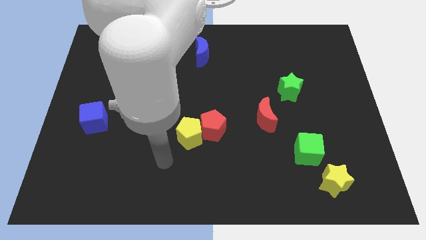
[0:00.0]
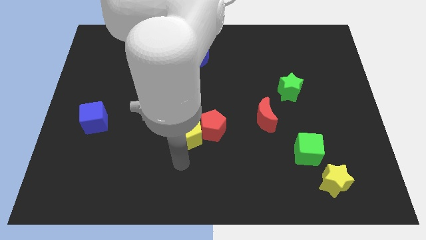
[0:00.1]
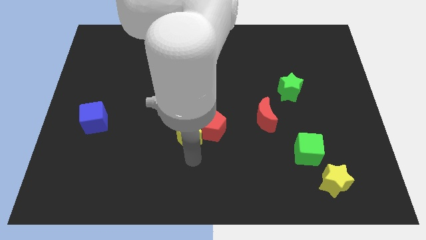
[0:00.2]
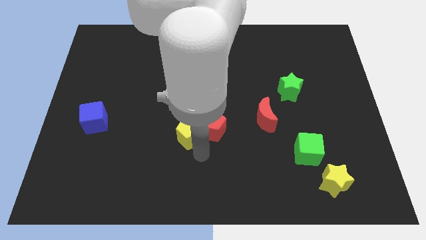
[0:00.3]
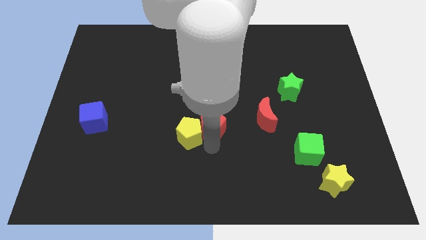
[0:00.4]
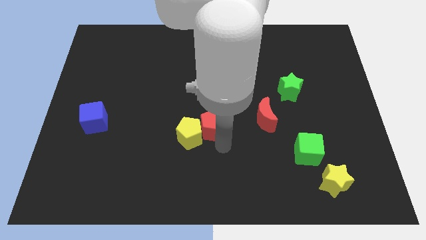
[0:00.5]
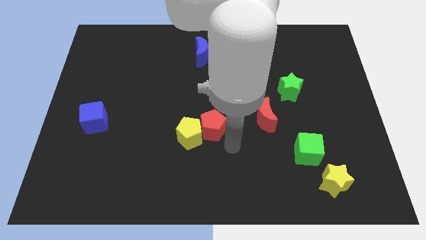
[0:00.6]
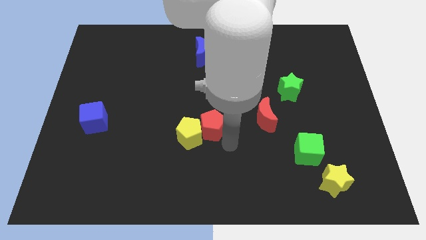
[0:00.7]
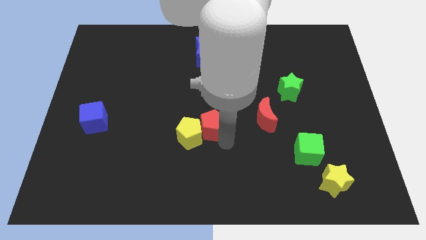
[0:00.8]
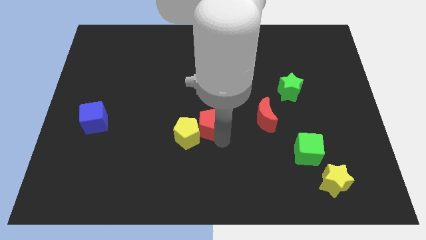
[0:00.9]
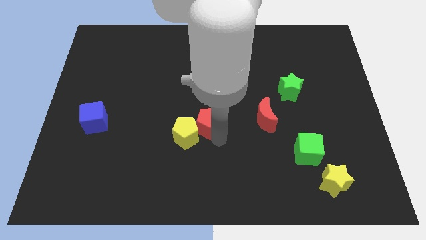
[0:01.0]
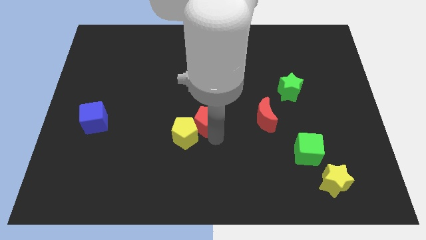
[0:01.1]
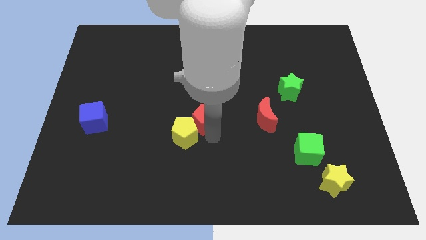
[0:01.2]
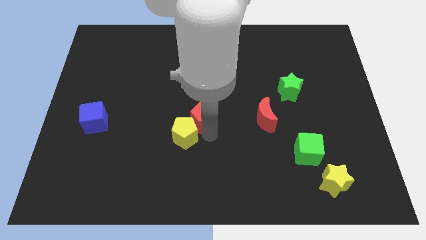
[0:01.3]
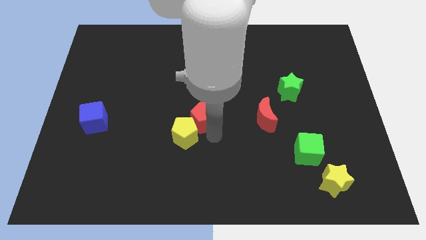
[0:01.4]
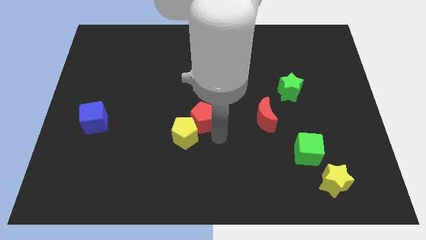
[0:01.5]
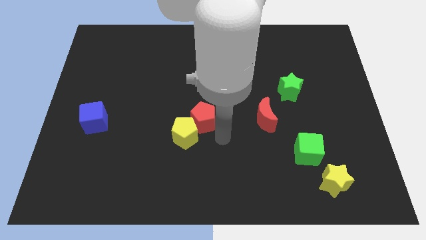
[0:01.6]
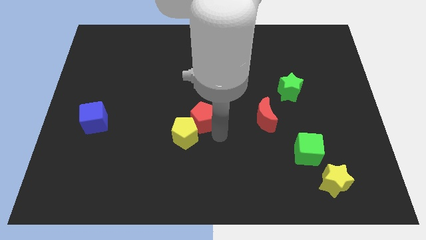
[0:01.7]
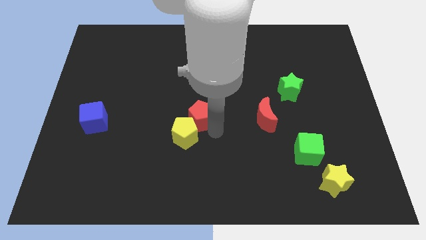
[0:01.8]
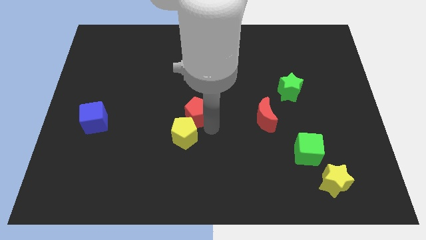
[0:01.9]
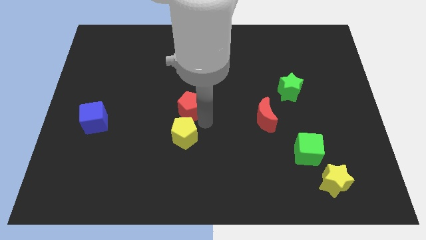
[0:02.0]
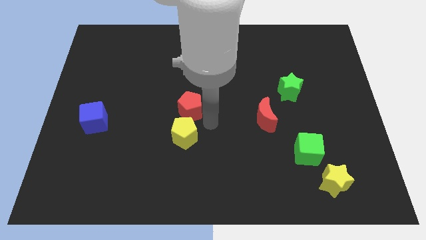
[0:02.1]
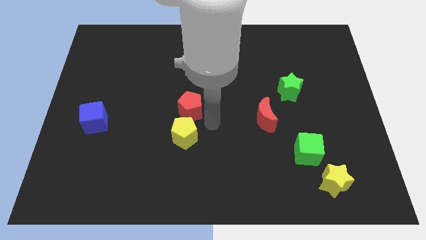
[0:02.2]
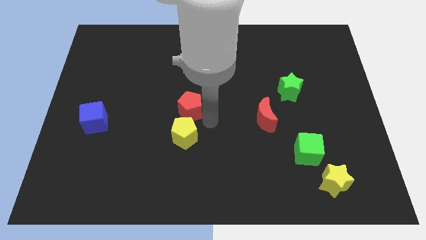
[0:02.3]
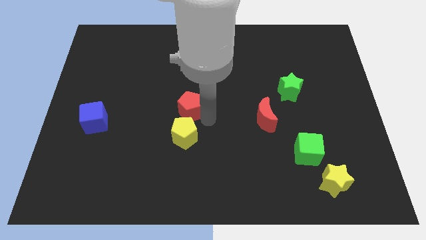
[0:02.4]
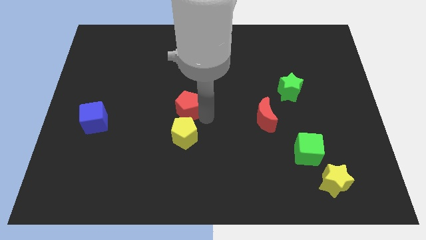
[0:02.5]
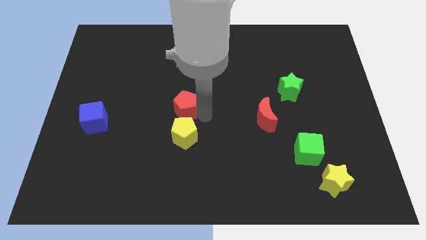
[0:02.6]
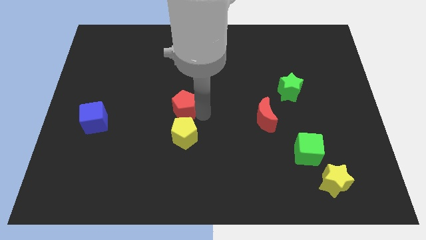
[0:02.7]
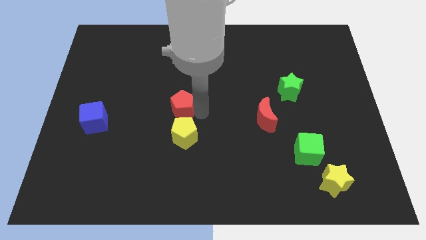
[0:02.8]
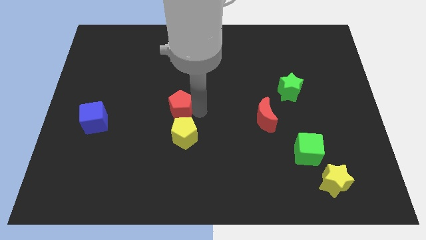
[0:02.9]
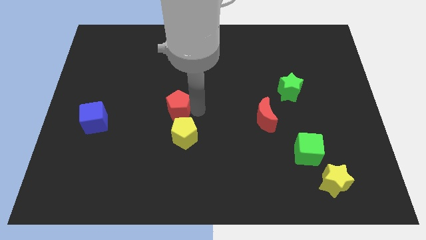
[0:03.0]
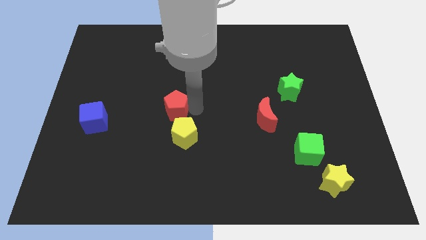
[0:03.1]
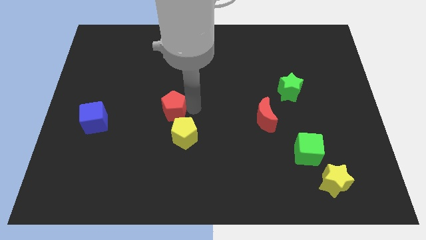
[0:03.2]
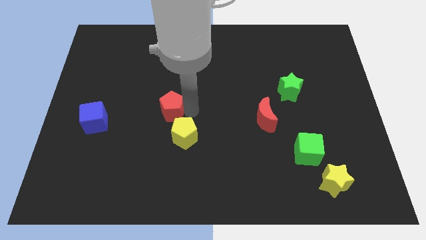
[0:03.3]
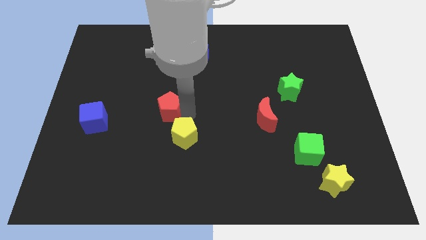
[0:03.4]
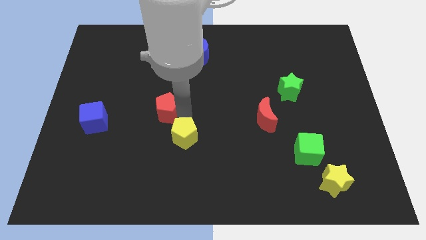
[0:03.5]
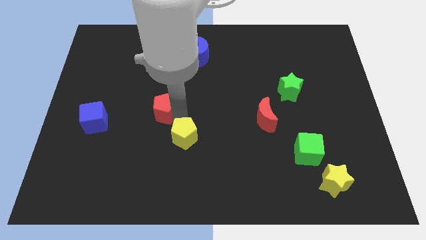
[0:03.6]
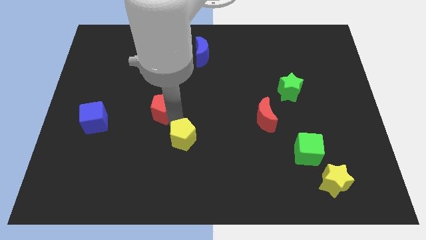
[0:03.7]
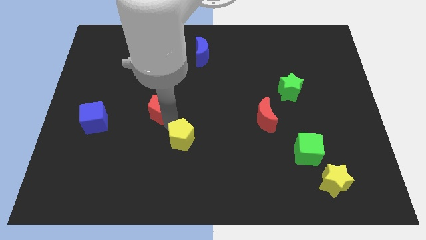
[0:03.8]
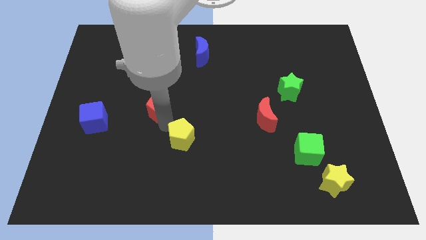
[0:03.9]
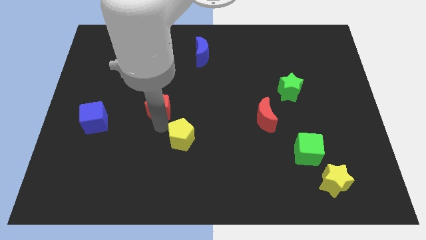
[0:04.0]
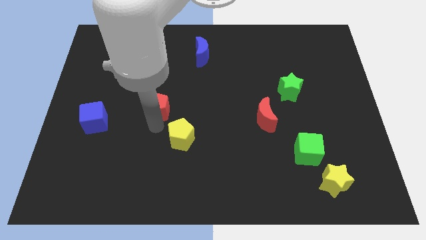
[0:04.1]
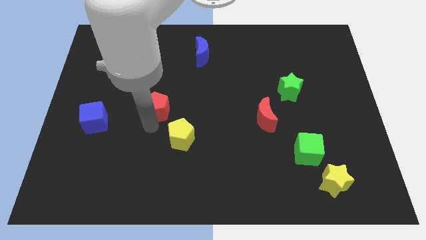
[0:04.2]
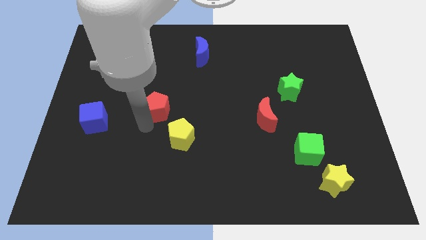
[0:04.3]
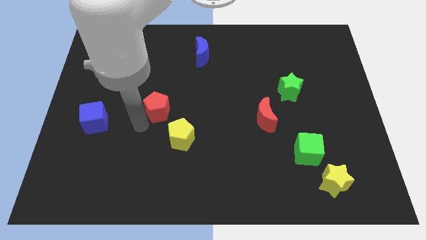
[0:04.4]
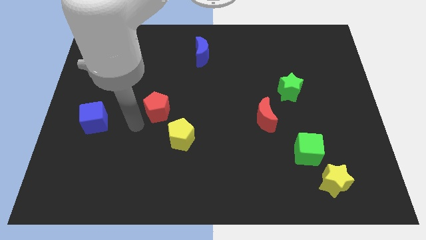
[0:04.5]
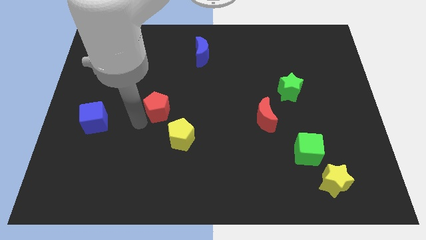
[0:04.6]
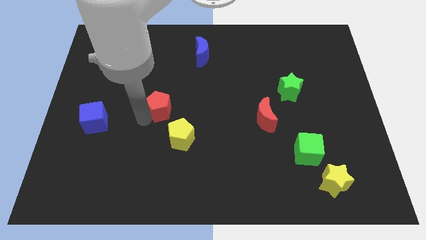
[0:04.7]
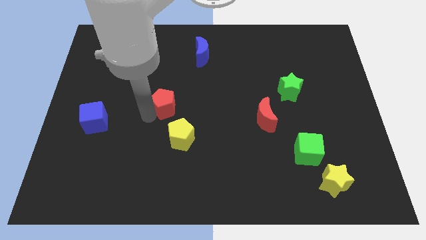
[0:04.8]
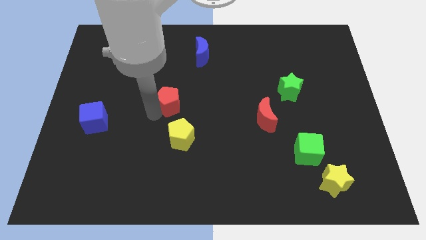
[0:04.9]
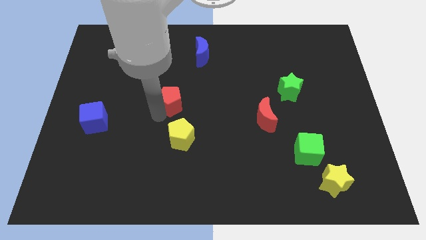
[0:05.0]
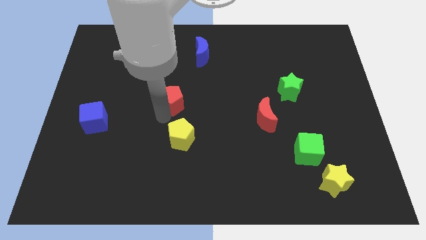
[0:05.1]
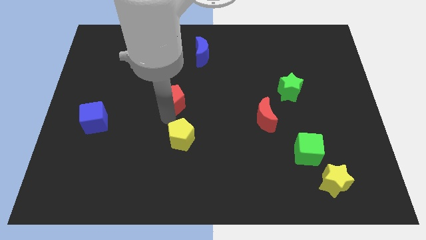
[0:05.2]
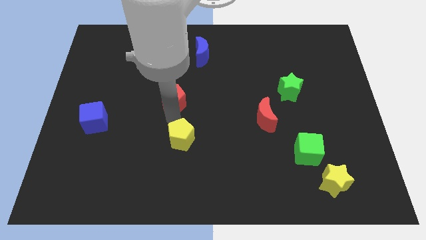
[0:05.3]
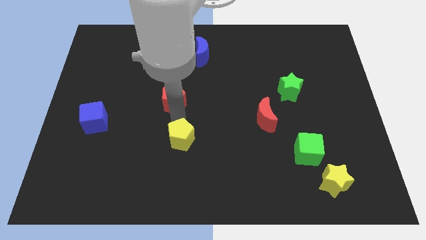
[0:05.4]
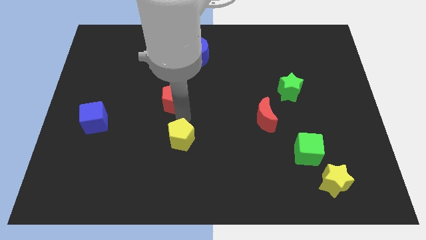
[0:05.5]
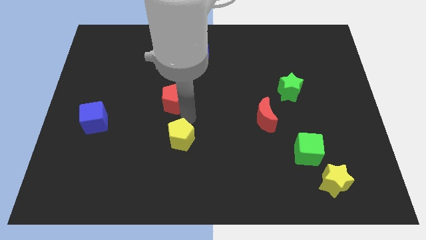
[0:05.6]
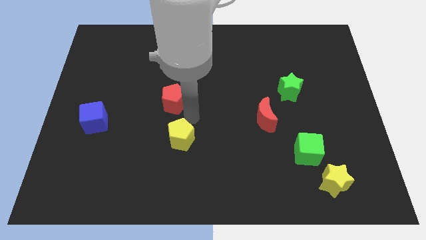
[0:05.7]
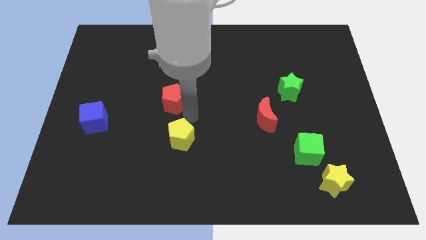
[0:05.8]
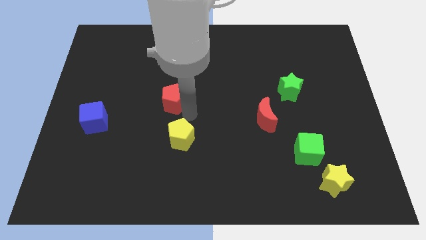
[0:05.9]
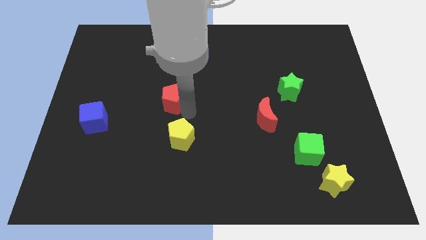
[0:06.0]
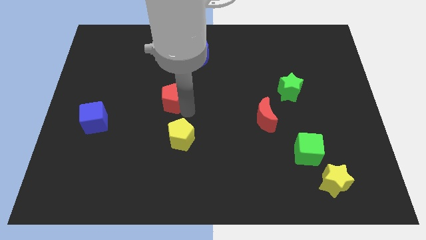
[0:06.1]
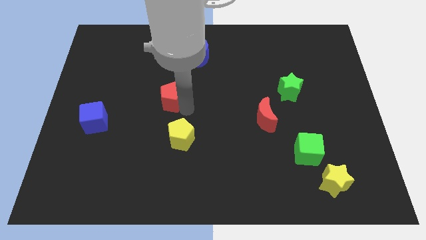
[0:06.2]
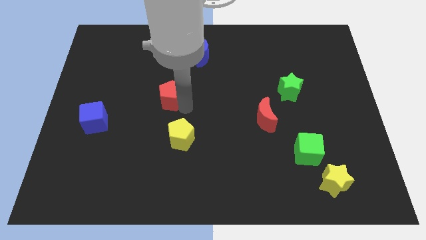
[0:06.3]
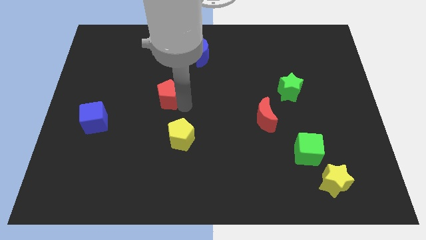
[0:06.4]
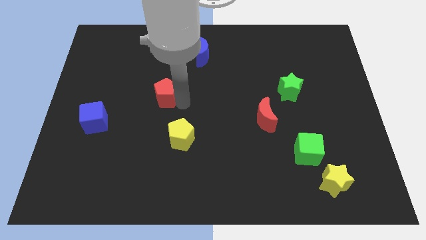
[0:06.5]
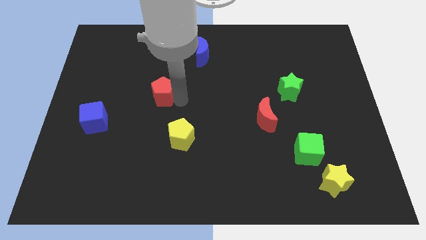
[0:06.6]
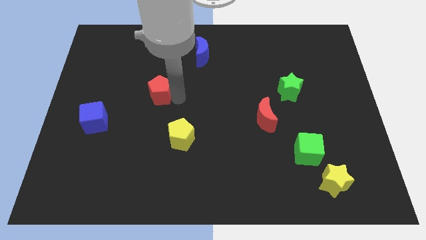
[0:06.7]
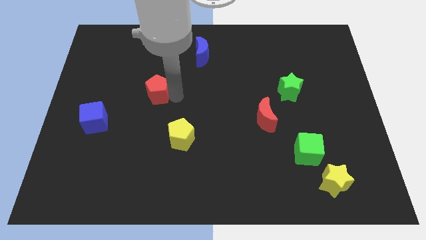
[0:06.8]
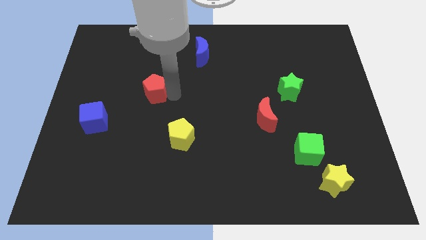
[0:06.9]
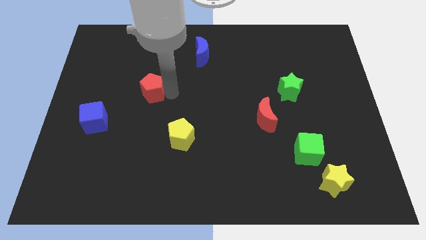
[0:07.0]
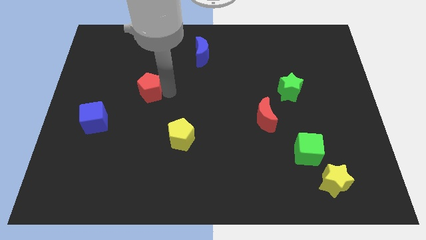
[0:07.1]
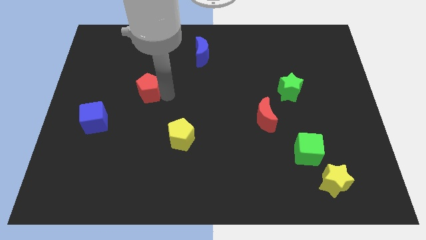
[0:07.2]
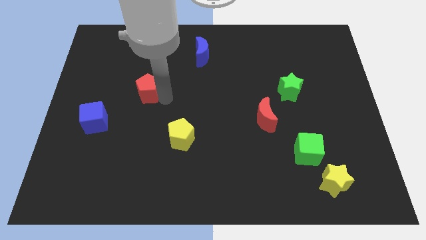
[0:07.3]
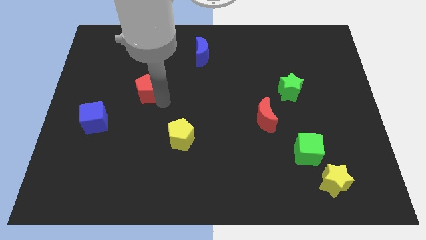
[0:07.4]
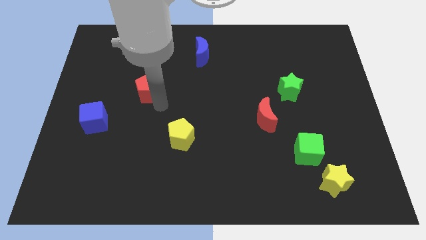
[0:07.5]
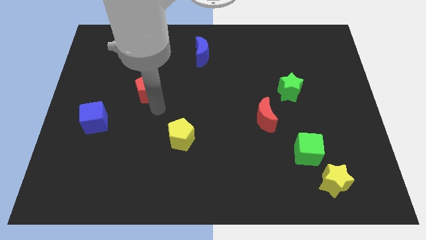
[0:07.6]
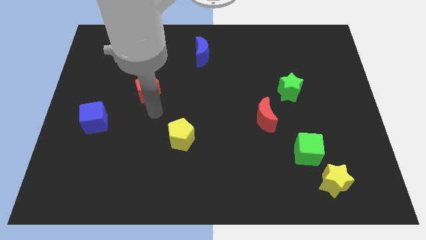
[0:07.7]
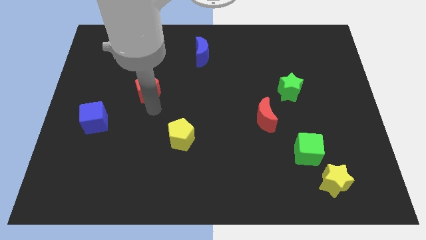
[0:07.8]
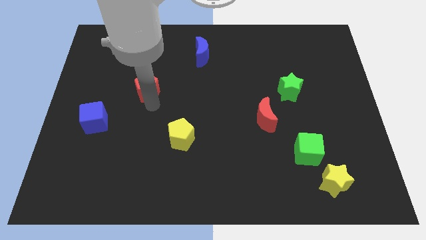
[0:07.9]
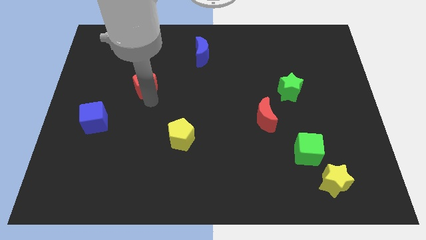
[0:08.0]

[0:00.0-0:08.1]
push the red pentagon upwards and left

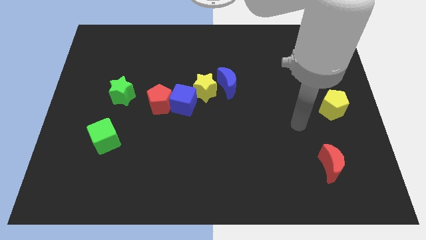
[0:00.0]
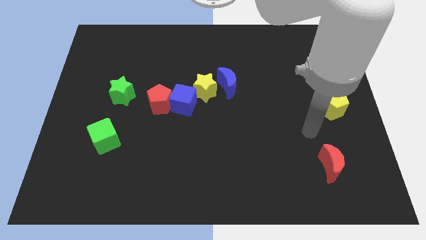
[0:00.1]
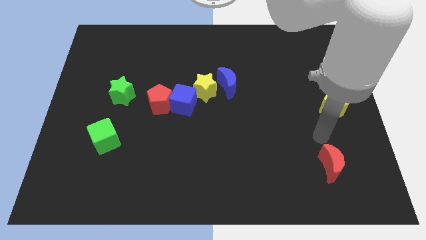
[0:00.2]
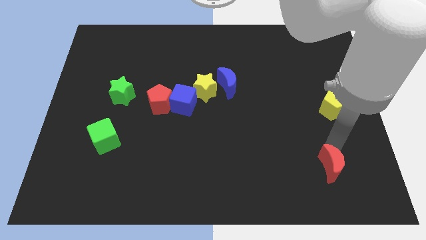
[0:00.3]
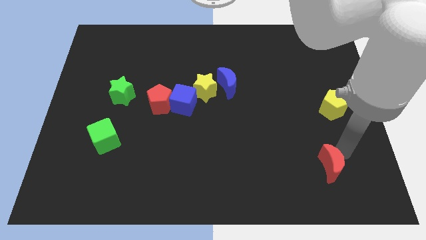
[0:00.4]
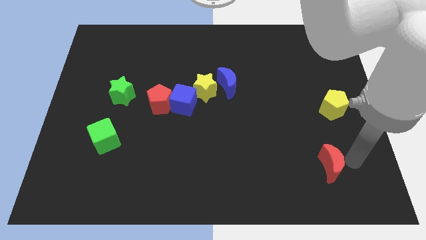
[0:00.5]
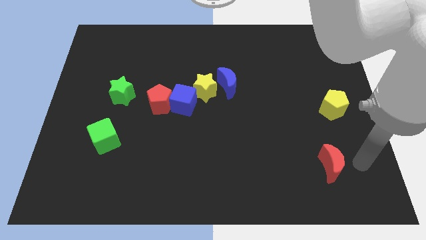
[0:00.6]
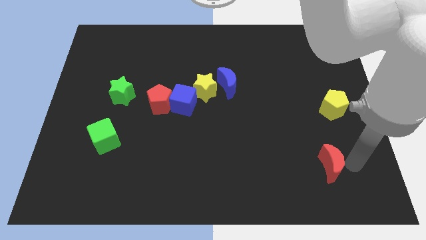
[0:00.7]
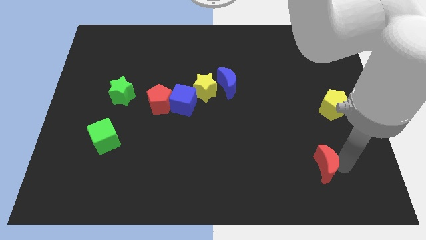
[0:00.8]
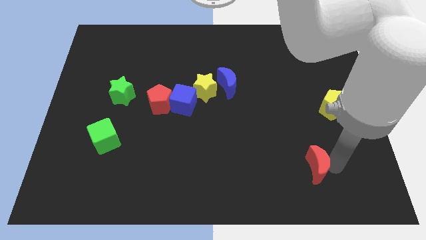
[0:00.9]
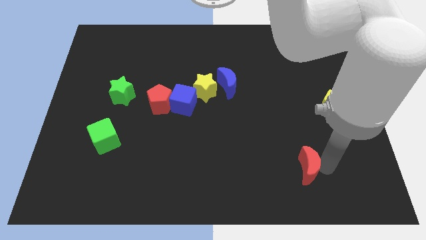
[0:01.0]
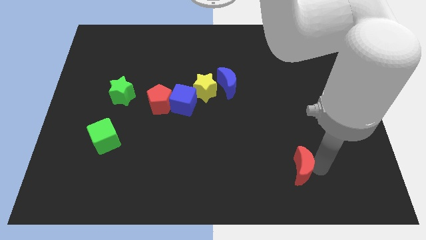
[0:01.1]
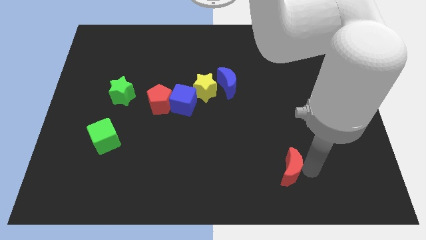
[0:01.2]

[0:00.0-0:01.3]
slightly slide the red moon to the left
